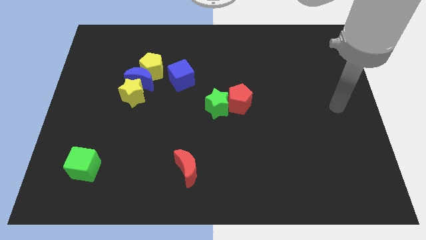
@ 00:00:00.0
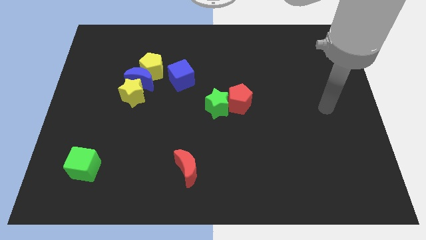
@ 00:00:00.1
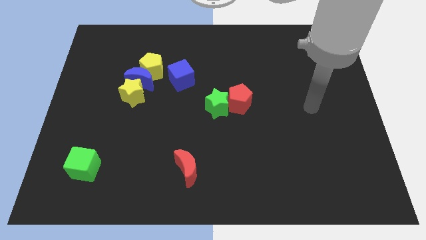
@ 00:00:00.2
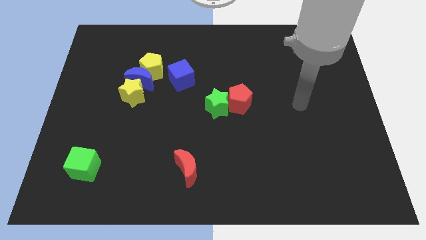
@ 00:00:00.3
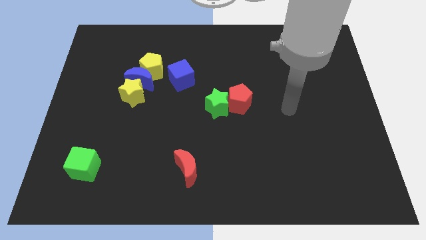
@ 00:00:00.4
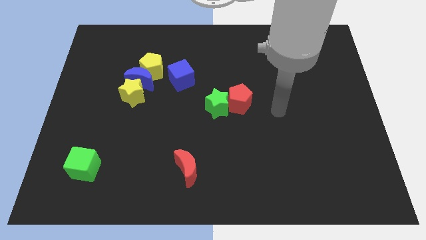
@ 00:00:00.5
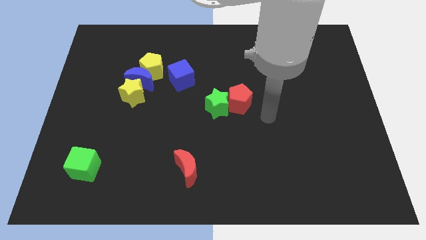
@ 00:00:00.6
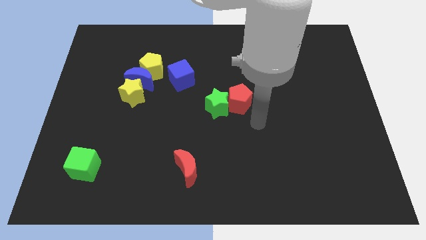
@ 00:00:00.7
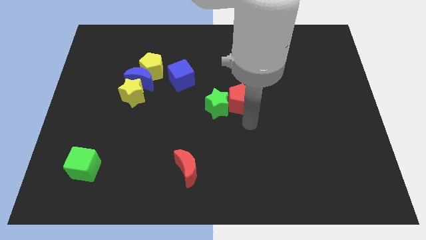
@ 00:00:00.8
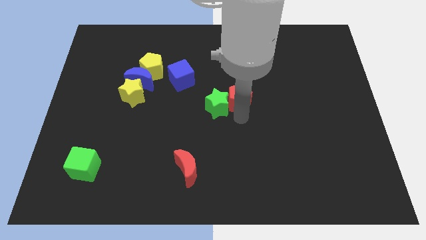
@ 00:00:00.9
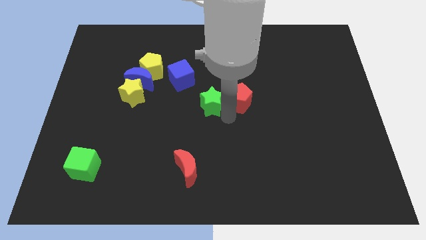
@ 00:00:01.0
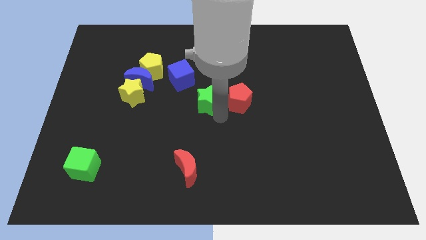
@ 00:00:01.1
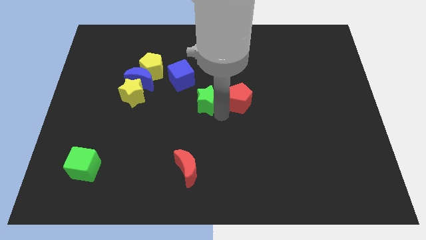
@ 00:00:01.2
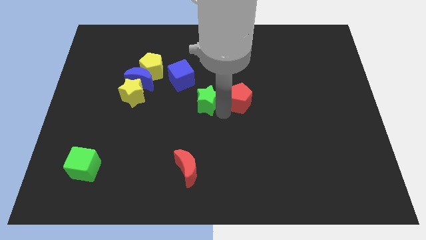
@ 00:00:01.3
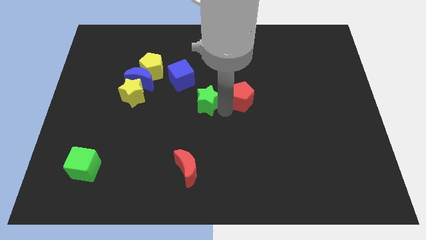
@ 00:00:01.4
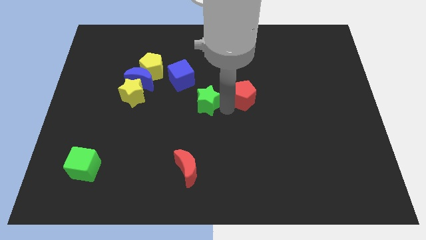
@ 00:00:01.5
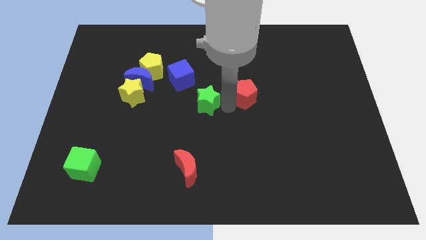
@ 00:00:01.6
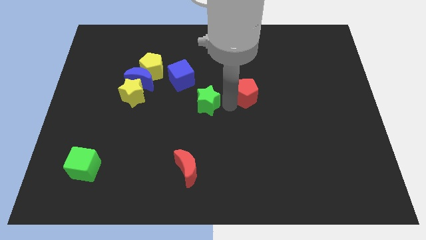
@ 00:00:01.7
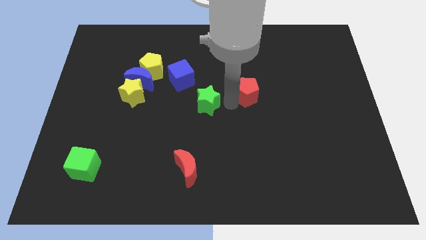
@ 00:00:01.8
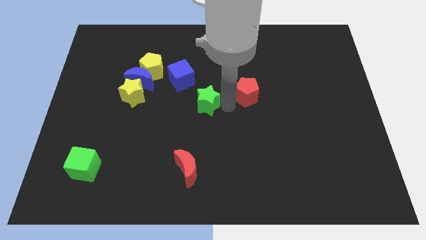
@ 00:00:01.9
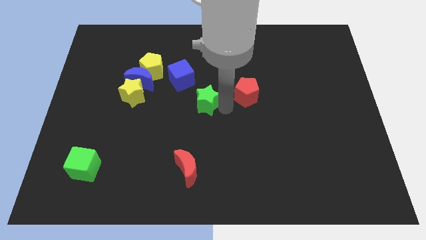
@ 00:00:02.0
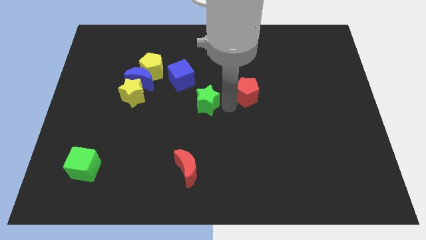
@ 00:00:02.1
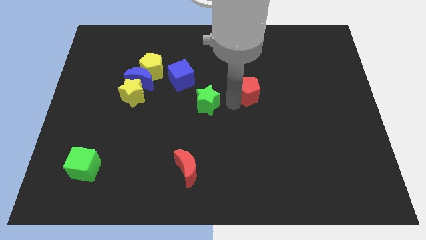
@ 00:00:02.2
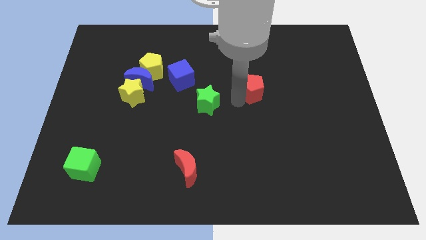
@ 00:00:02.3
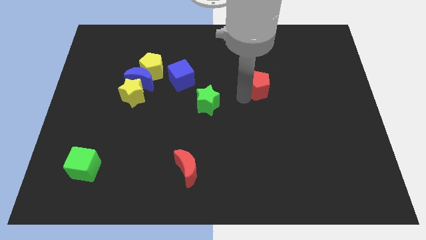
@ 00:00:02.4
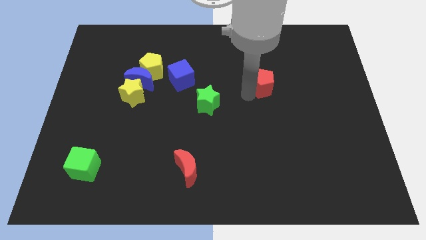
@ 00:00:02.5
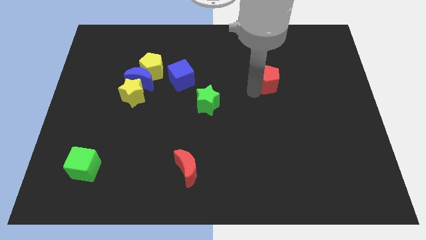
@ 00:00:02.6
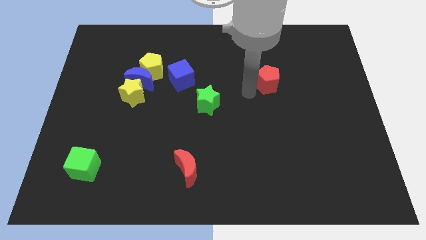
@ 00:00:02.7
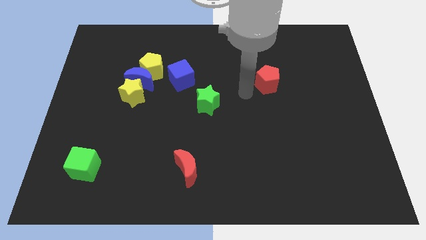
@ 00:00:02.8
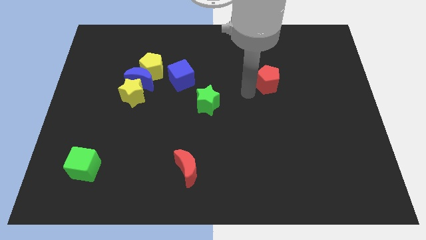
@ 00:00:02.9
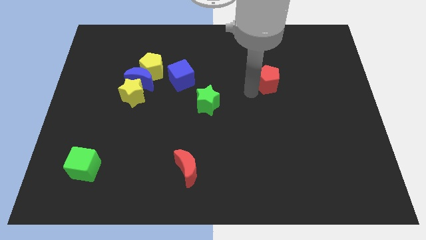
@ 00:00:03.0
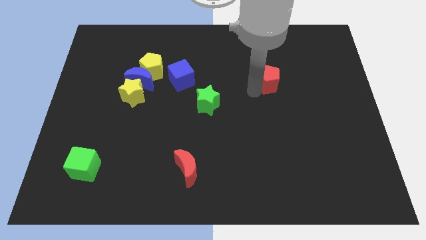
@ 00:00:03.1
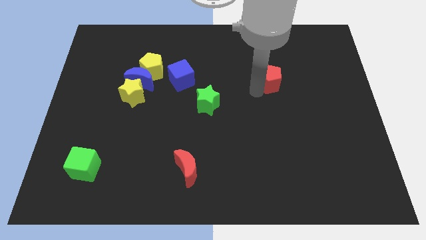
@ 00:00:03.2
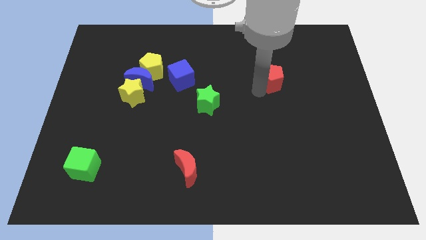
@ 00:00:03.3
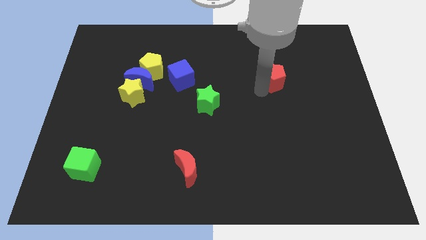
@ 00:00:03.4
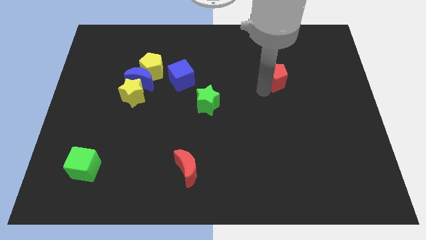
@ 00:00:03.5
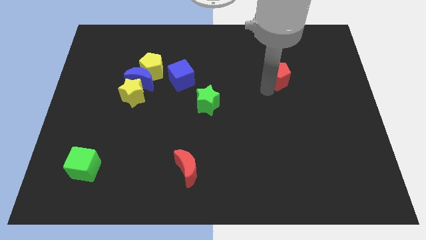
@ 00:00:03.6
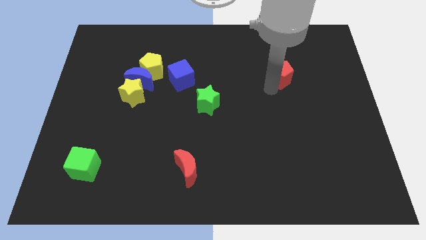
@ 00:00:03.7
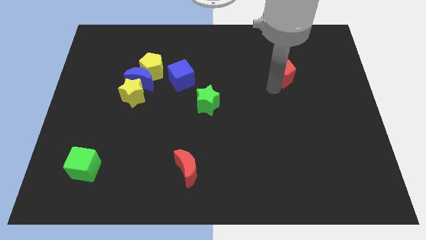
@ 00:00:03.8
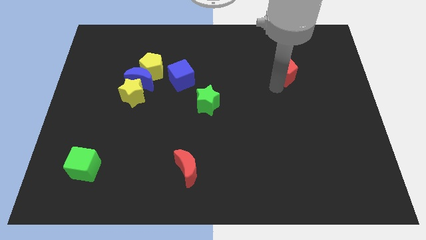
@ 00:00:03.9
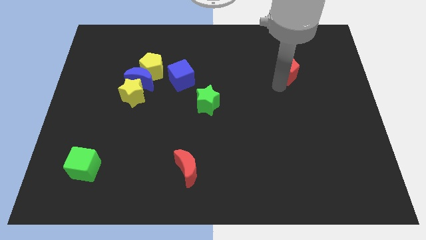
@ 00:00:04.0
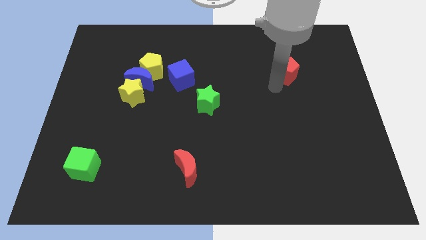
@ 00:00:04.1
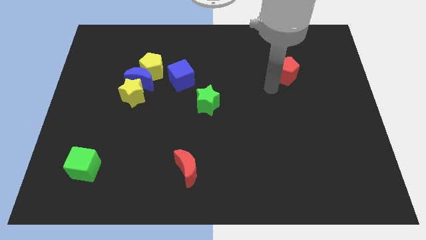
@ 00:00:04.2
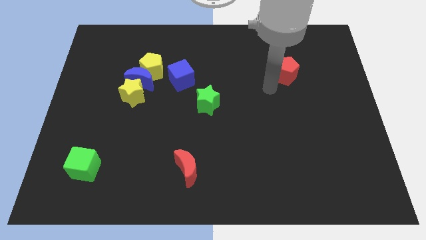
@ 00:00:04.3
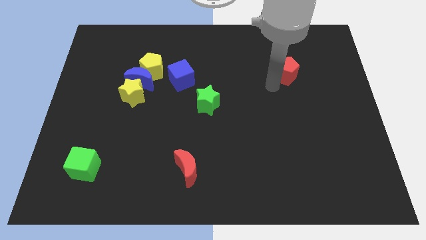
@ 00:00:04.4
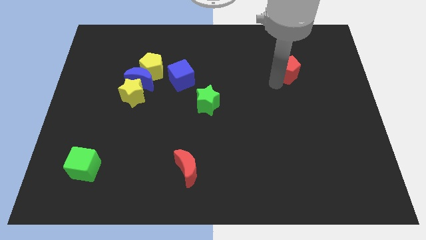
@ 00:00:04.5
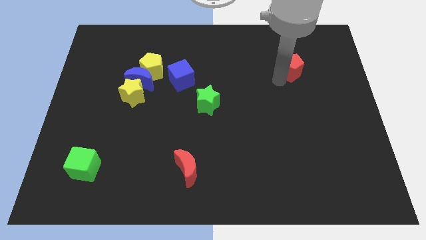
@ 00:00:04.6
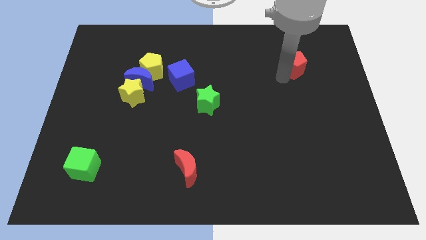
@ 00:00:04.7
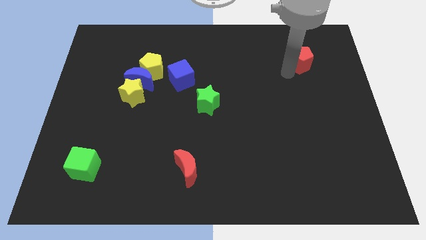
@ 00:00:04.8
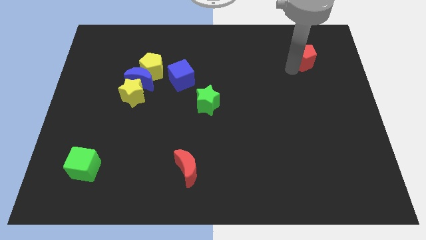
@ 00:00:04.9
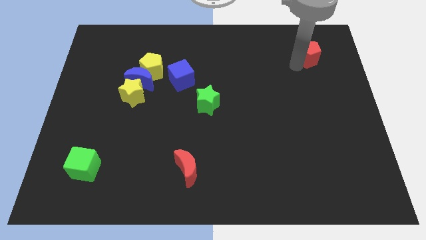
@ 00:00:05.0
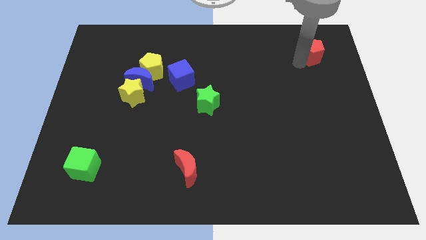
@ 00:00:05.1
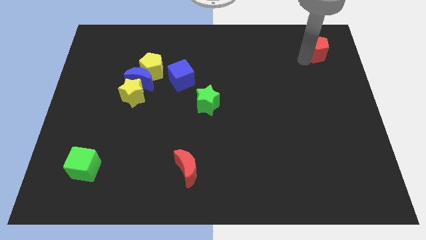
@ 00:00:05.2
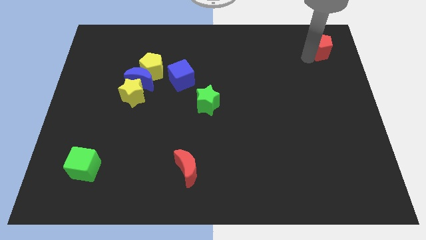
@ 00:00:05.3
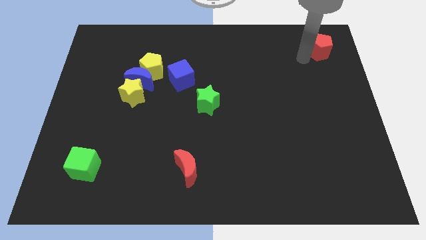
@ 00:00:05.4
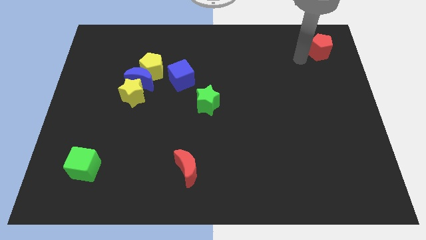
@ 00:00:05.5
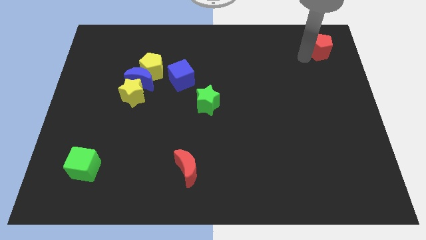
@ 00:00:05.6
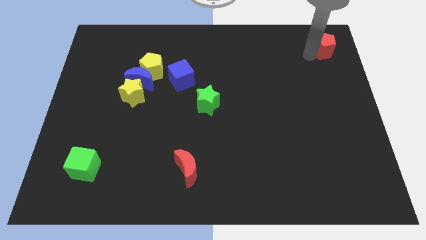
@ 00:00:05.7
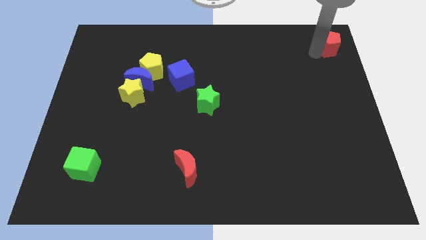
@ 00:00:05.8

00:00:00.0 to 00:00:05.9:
move the red pentagon to the top right

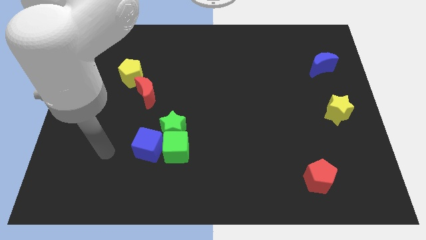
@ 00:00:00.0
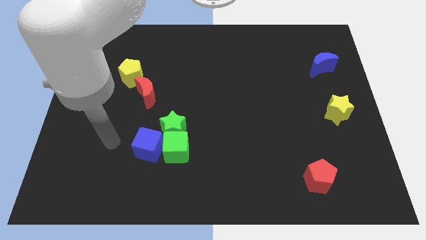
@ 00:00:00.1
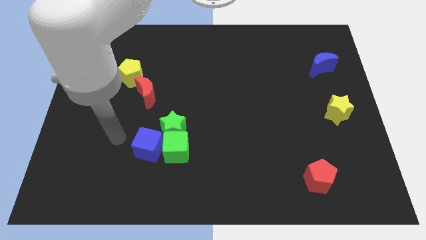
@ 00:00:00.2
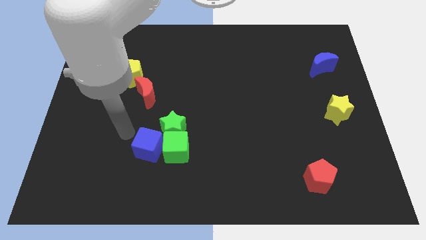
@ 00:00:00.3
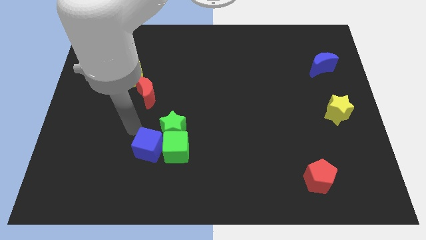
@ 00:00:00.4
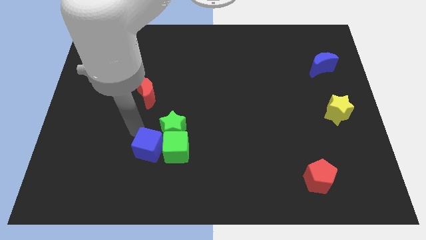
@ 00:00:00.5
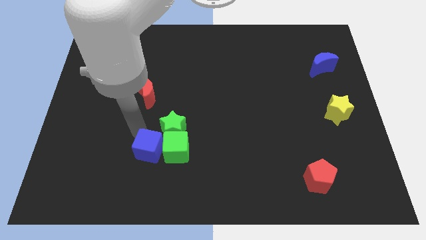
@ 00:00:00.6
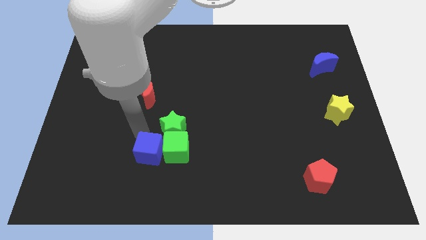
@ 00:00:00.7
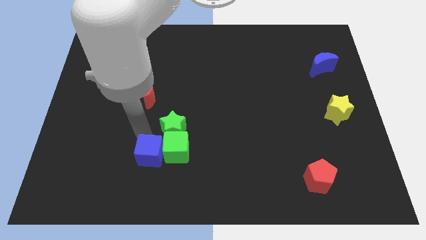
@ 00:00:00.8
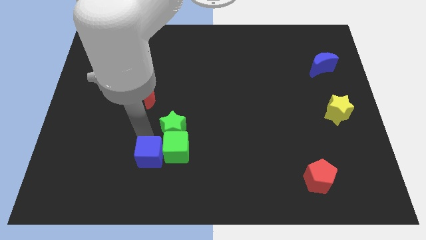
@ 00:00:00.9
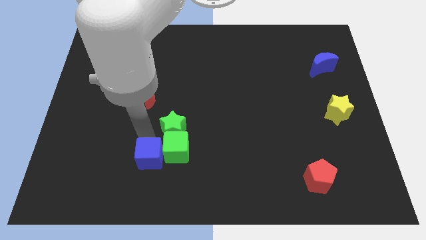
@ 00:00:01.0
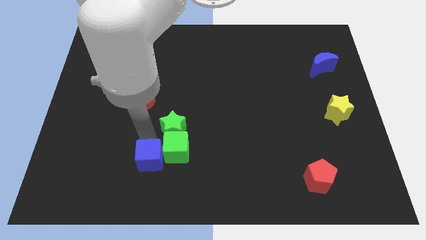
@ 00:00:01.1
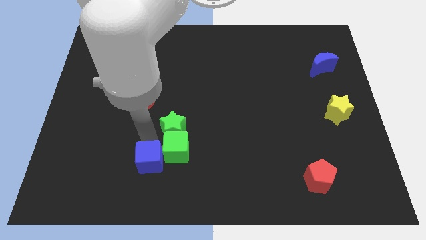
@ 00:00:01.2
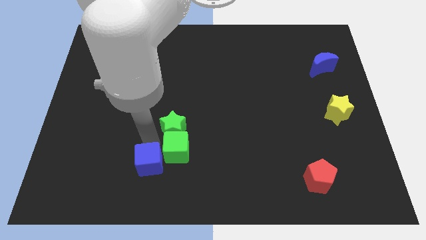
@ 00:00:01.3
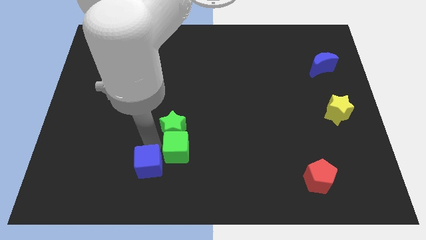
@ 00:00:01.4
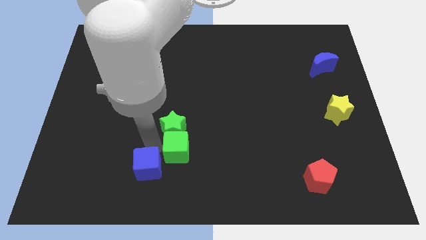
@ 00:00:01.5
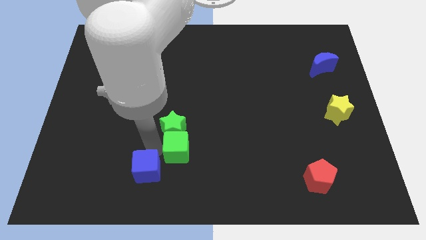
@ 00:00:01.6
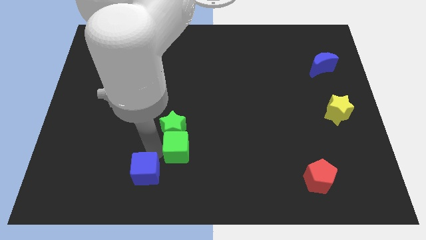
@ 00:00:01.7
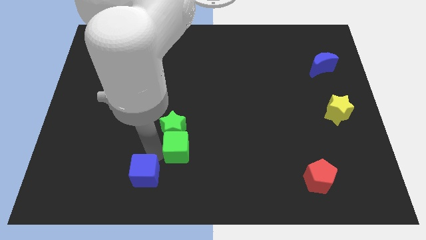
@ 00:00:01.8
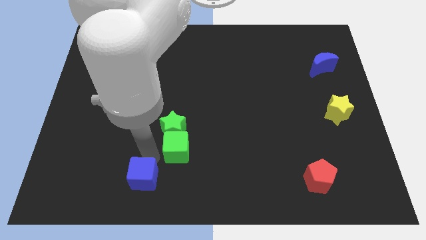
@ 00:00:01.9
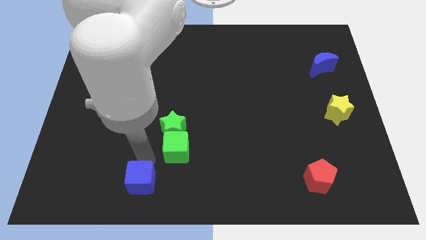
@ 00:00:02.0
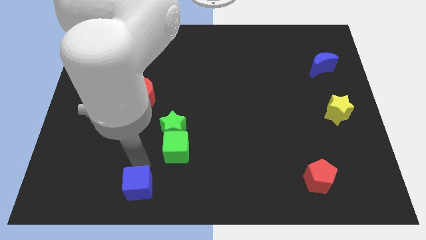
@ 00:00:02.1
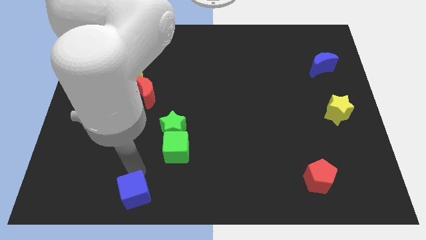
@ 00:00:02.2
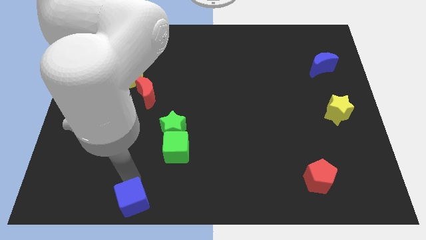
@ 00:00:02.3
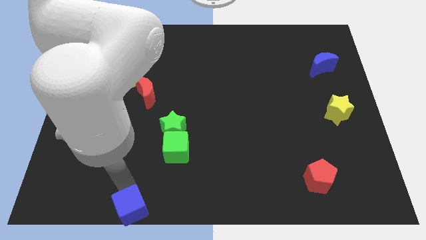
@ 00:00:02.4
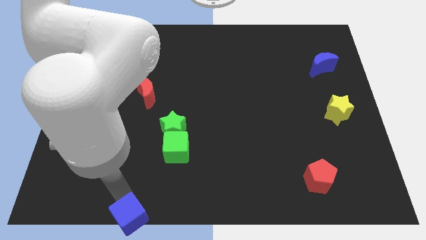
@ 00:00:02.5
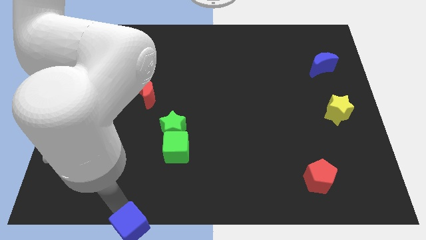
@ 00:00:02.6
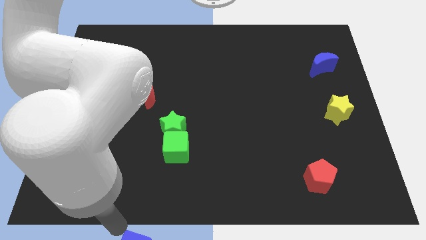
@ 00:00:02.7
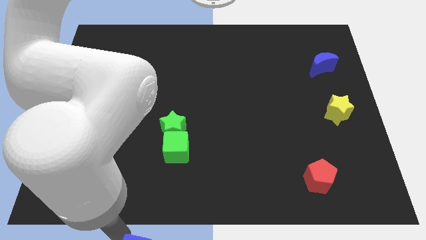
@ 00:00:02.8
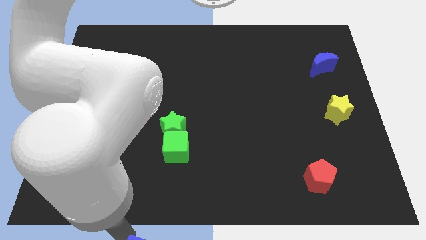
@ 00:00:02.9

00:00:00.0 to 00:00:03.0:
slide the blue cube to the bottom
